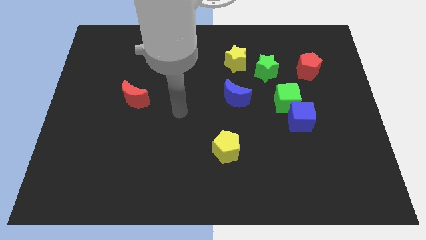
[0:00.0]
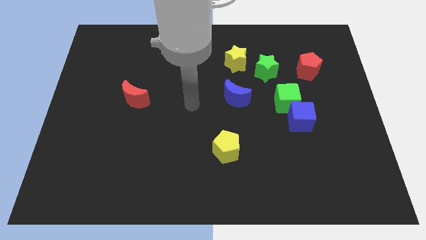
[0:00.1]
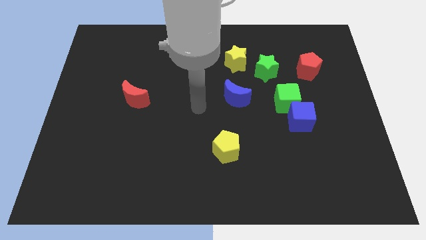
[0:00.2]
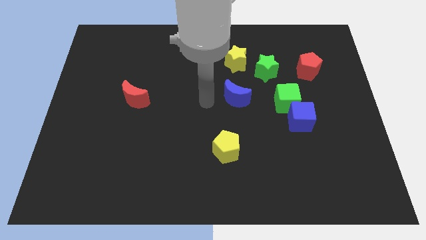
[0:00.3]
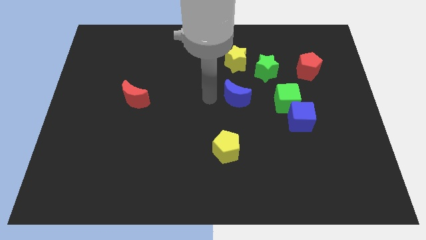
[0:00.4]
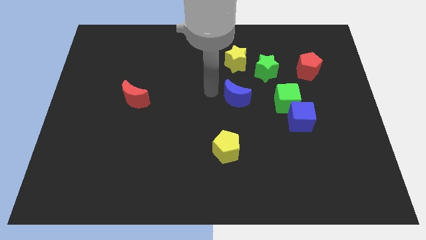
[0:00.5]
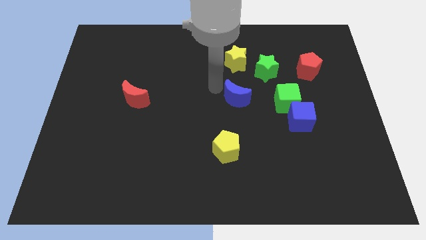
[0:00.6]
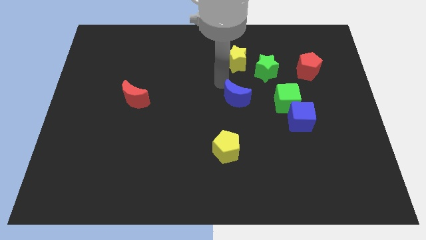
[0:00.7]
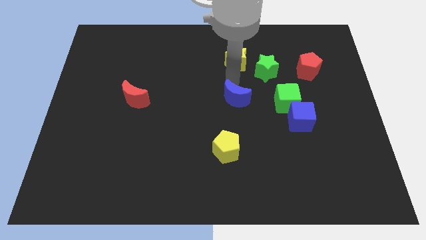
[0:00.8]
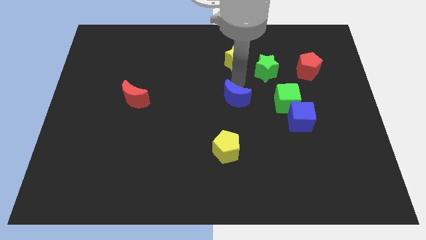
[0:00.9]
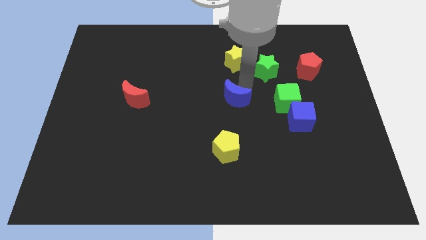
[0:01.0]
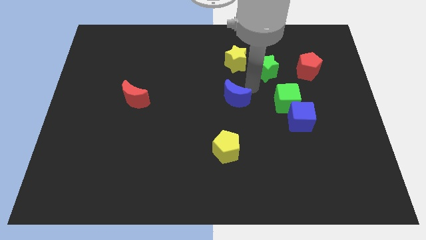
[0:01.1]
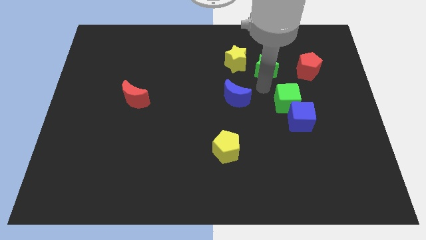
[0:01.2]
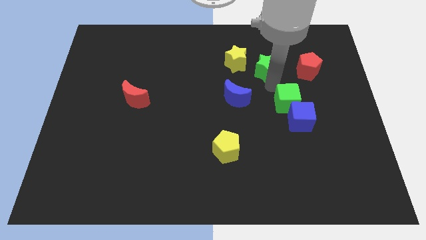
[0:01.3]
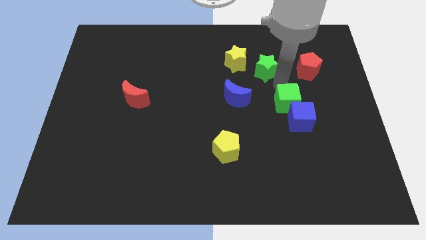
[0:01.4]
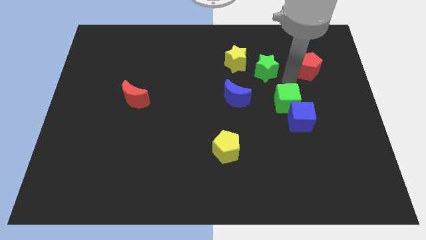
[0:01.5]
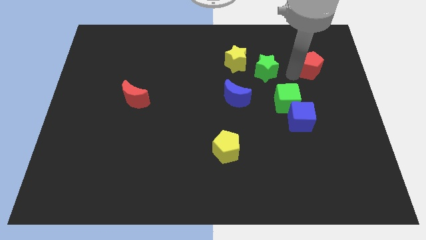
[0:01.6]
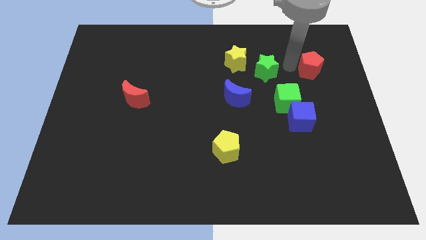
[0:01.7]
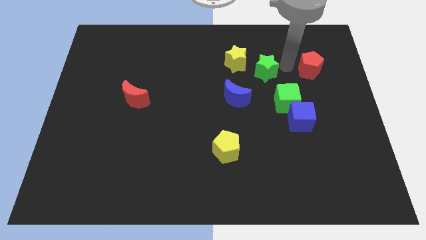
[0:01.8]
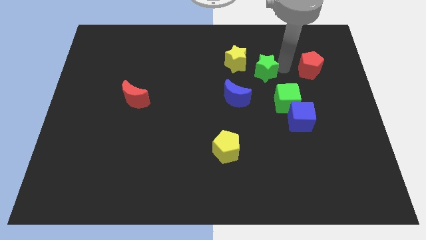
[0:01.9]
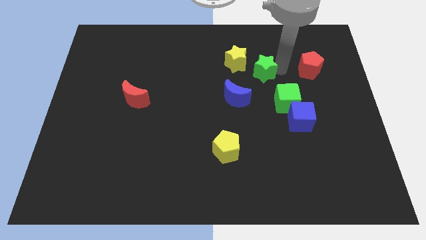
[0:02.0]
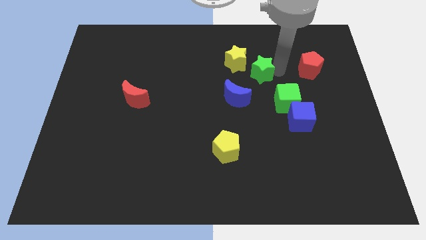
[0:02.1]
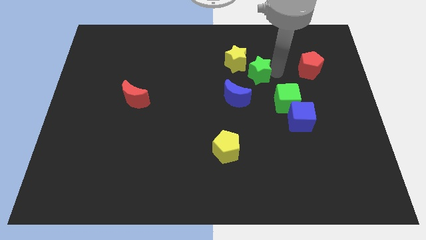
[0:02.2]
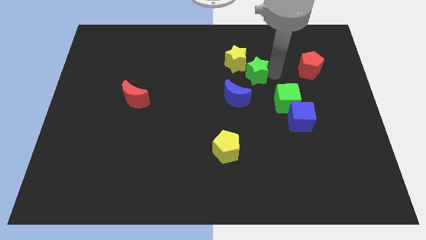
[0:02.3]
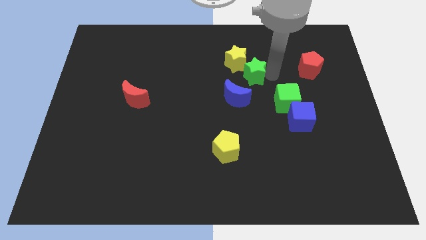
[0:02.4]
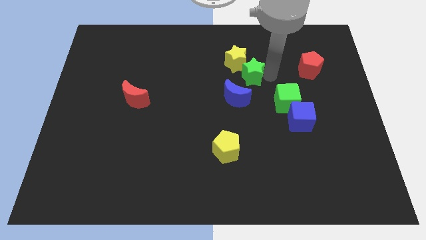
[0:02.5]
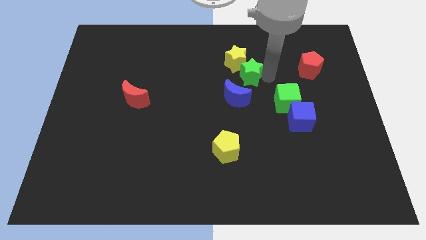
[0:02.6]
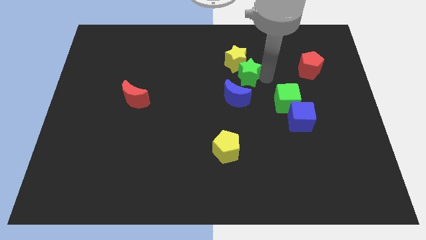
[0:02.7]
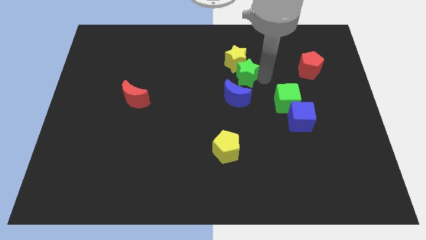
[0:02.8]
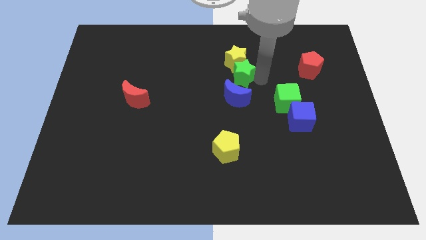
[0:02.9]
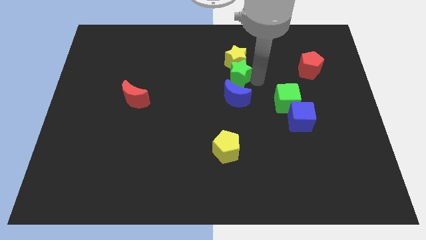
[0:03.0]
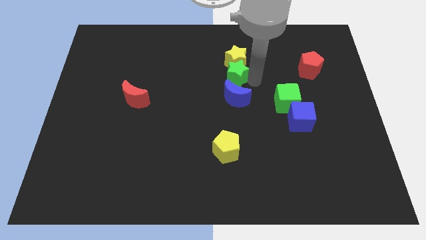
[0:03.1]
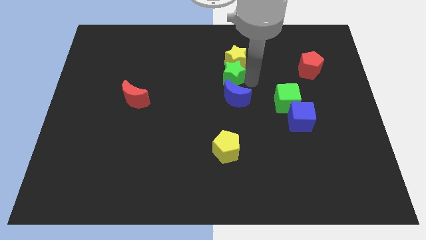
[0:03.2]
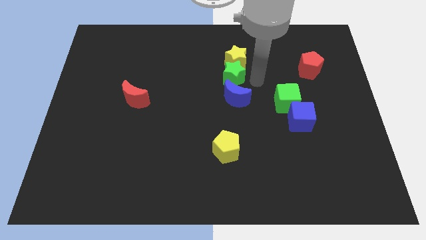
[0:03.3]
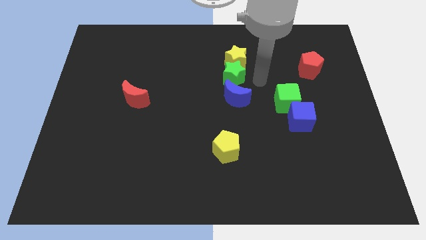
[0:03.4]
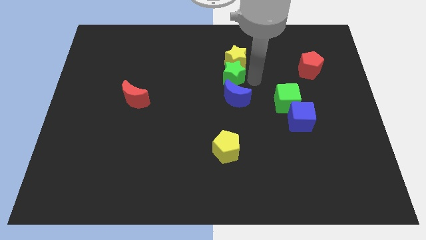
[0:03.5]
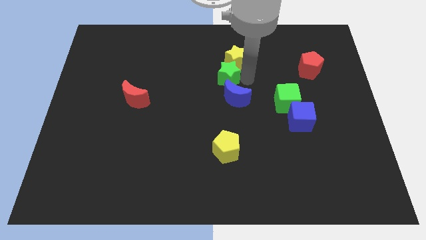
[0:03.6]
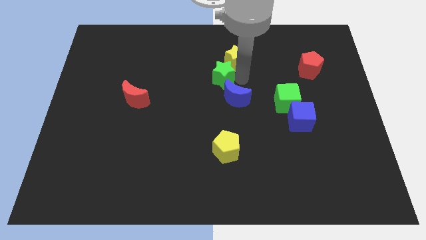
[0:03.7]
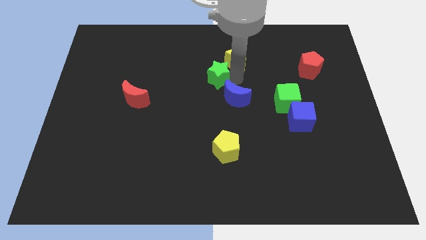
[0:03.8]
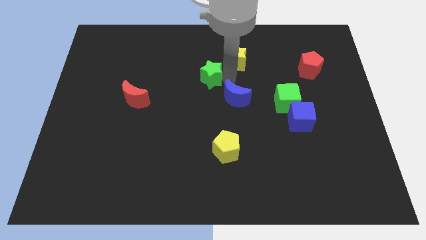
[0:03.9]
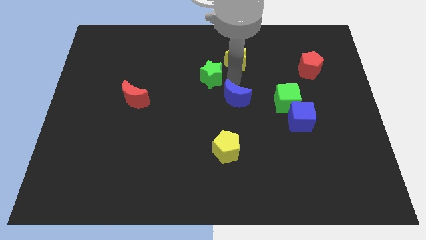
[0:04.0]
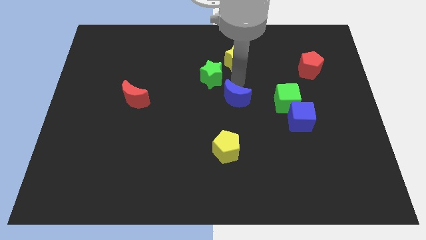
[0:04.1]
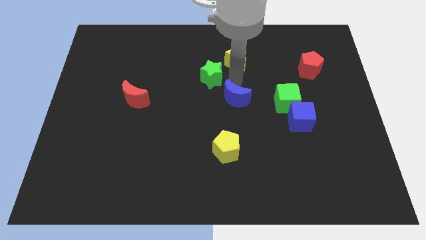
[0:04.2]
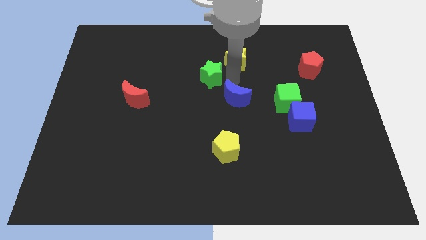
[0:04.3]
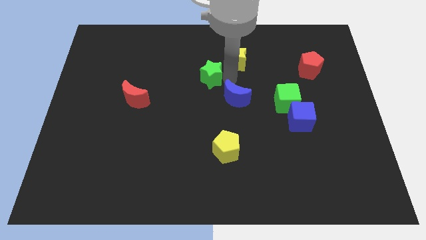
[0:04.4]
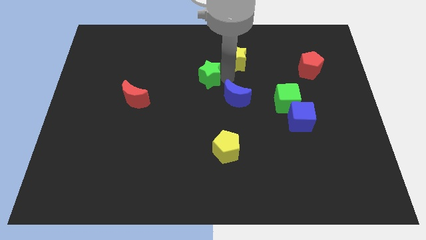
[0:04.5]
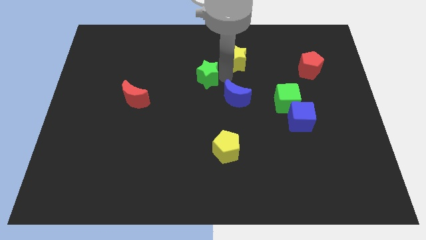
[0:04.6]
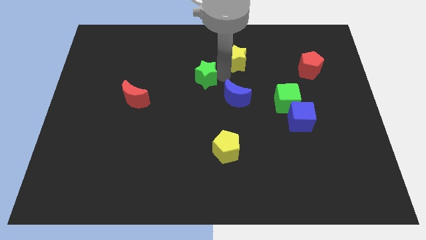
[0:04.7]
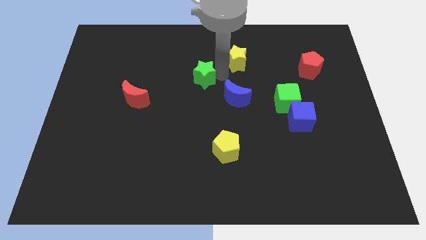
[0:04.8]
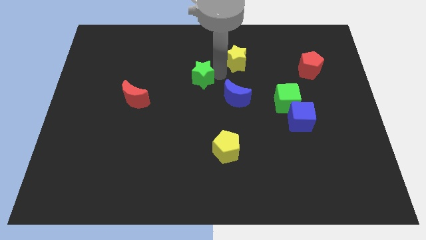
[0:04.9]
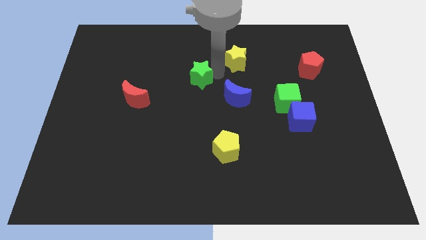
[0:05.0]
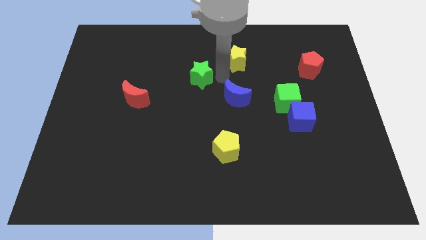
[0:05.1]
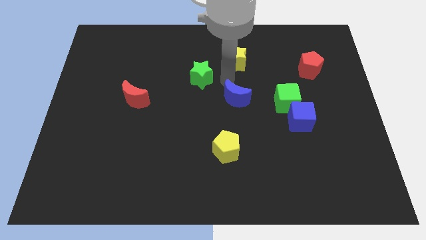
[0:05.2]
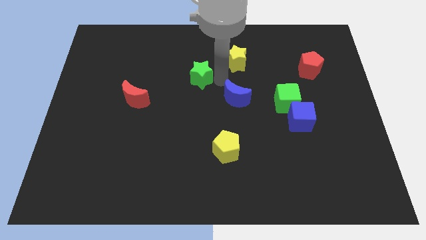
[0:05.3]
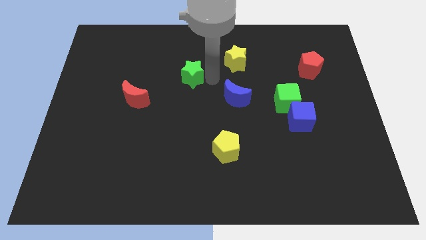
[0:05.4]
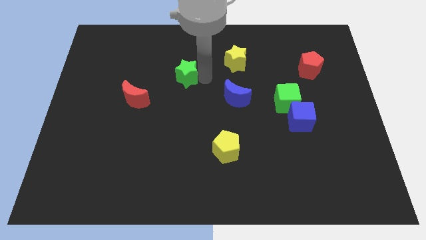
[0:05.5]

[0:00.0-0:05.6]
slide the green star to the left

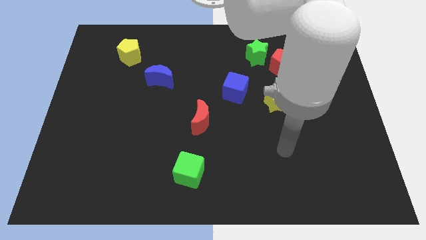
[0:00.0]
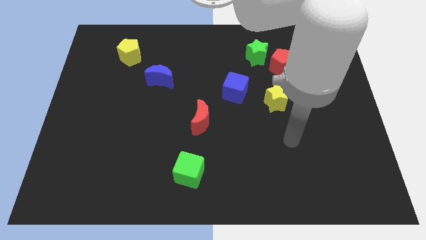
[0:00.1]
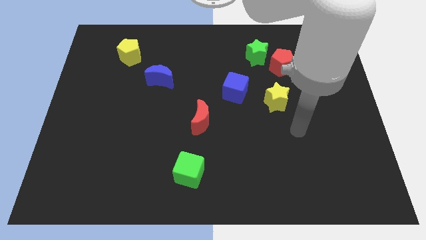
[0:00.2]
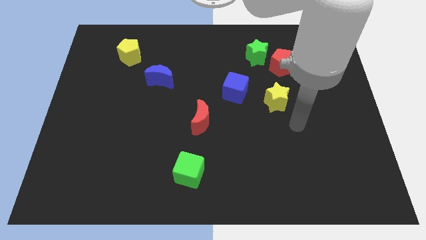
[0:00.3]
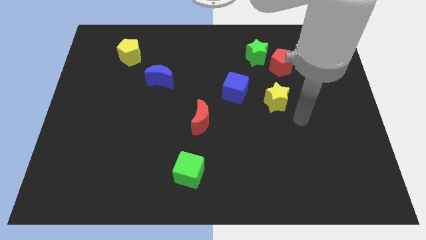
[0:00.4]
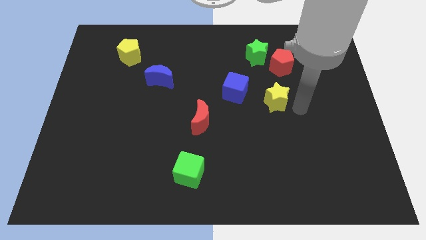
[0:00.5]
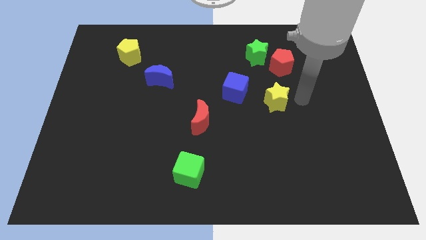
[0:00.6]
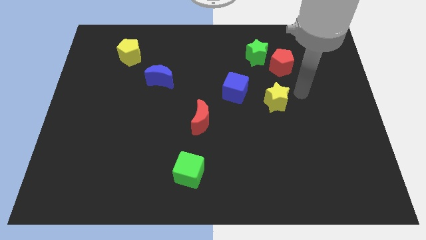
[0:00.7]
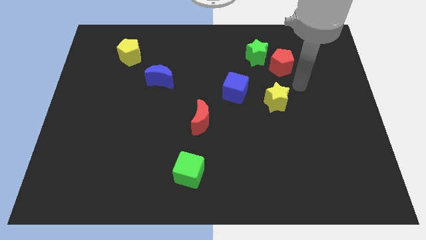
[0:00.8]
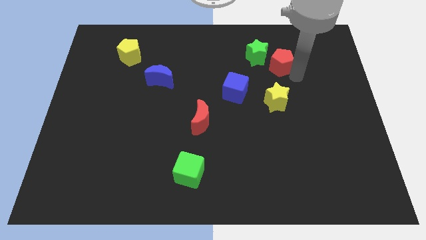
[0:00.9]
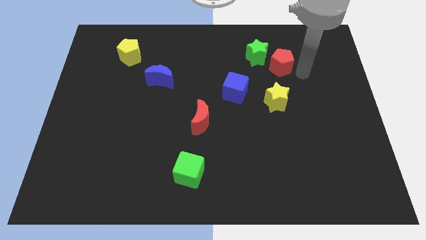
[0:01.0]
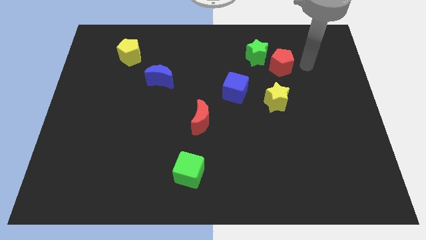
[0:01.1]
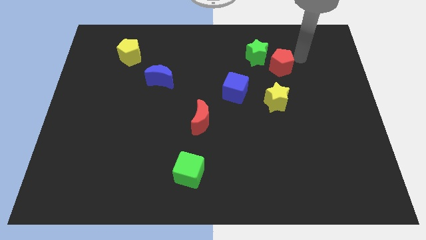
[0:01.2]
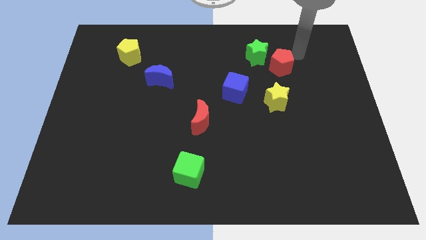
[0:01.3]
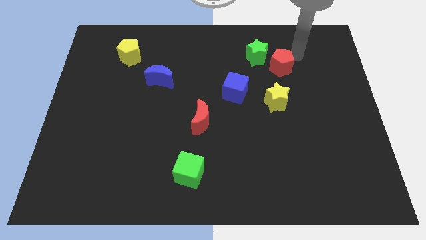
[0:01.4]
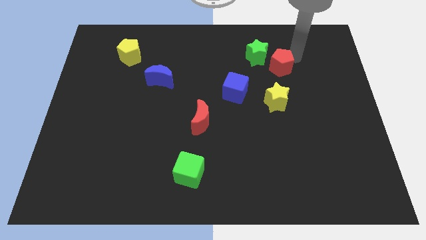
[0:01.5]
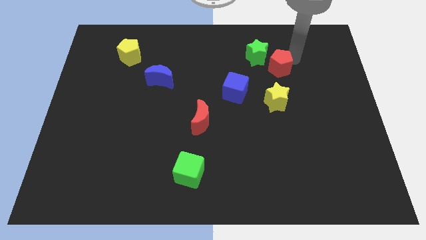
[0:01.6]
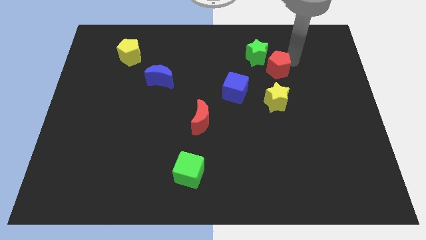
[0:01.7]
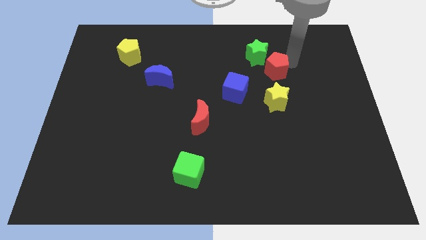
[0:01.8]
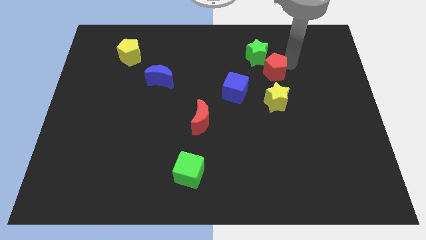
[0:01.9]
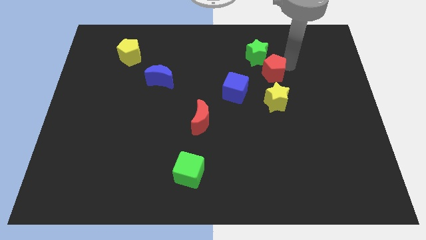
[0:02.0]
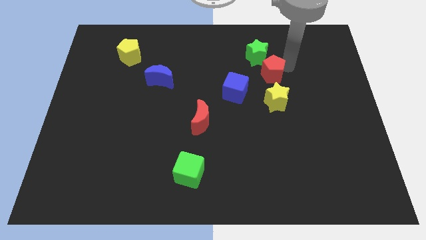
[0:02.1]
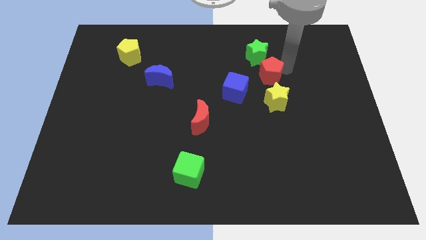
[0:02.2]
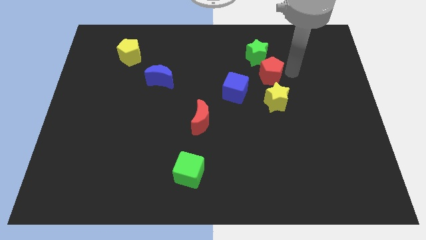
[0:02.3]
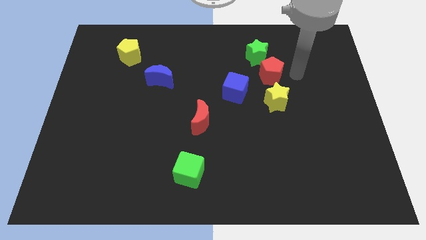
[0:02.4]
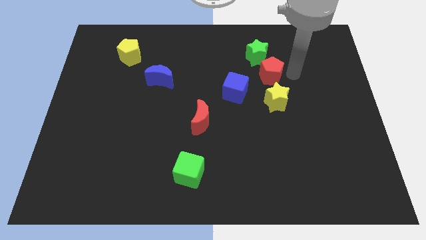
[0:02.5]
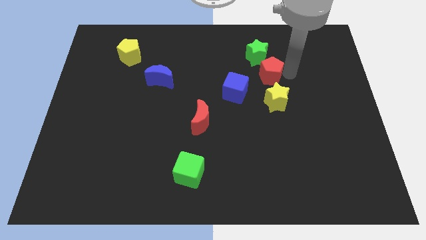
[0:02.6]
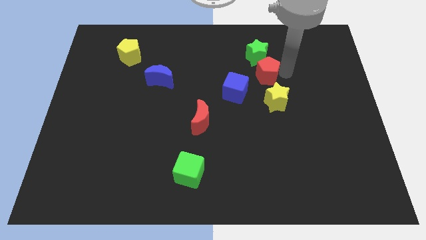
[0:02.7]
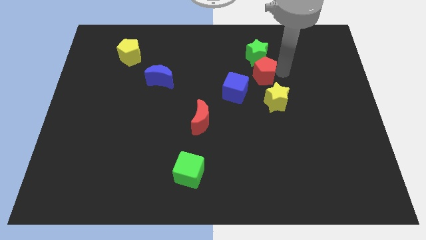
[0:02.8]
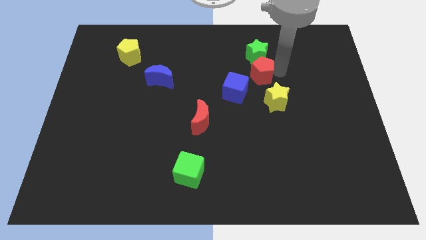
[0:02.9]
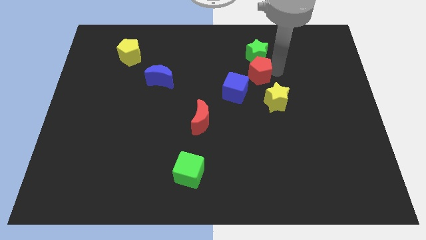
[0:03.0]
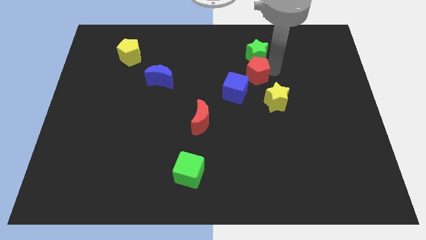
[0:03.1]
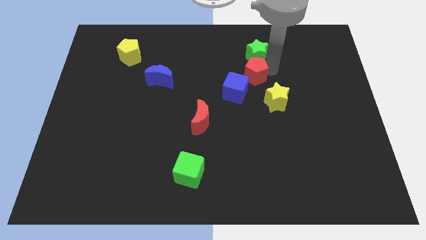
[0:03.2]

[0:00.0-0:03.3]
slightly push the red pentagon downwards and to the left diagonally
